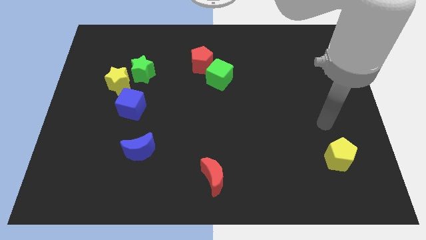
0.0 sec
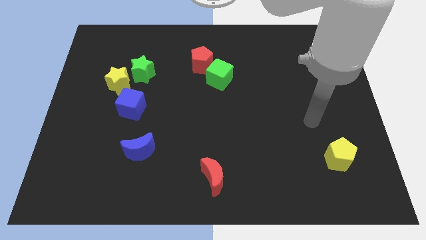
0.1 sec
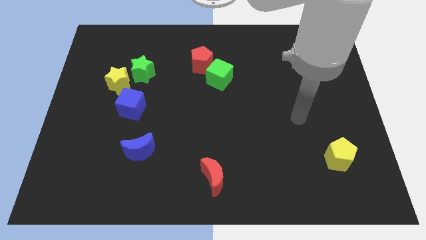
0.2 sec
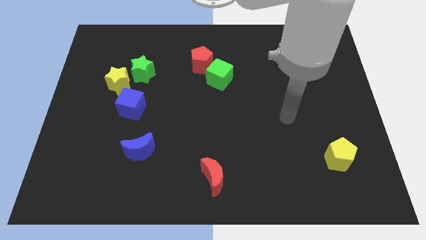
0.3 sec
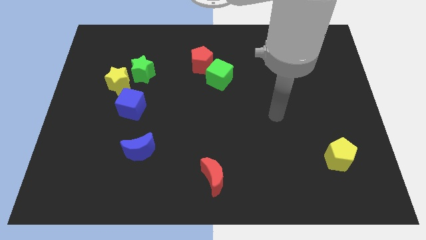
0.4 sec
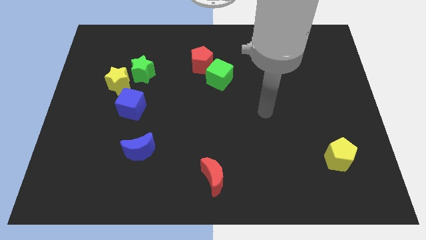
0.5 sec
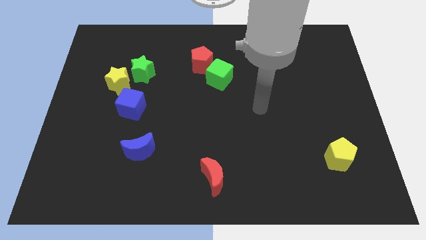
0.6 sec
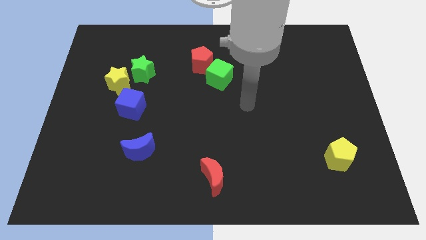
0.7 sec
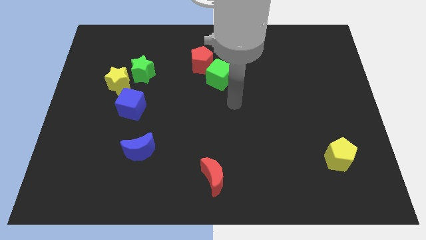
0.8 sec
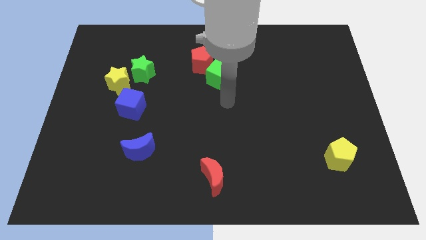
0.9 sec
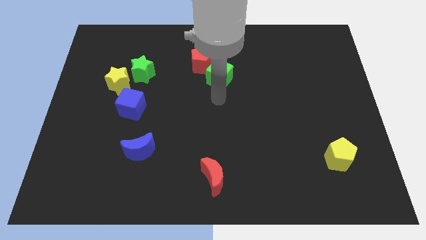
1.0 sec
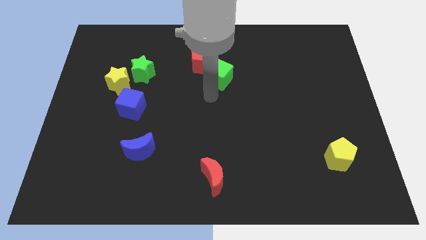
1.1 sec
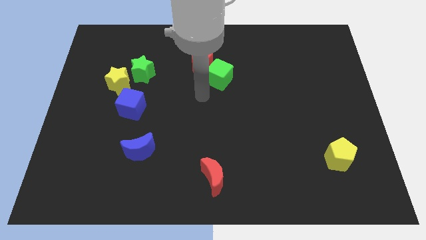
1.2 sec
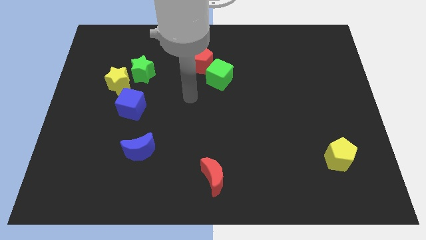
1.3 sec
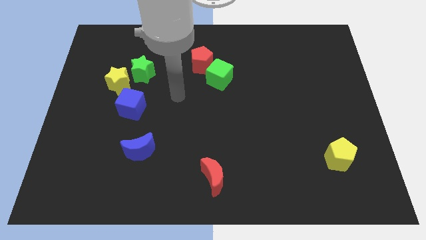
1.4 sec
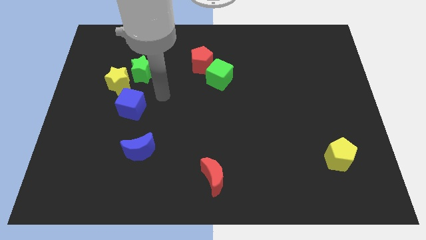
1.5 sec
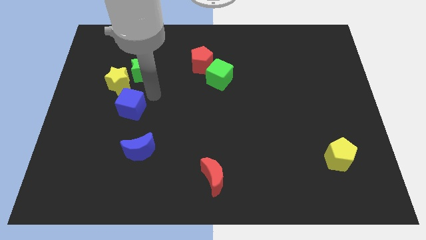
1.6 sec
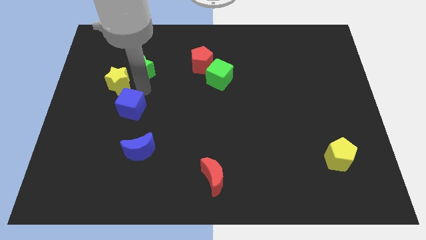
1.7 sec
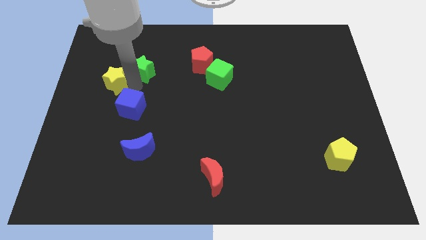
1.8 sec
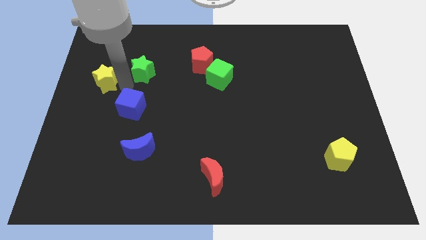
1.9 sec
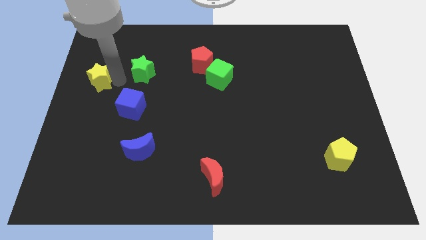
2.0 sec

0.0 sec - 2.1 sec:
separate the green star from the yellow star

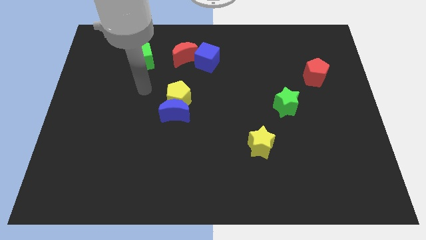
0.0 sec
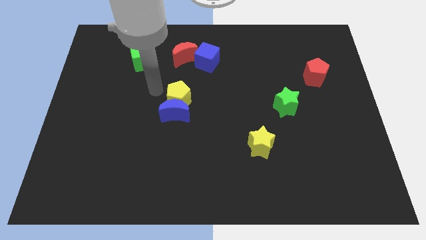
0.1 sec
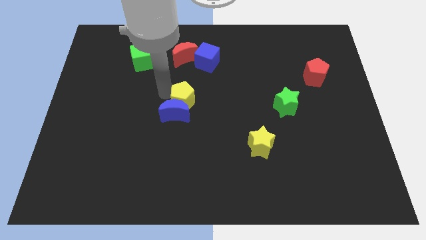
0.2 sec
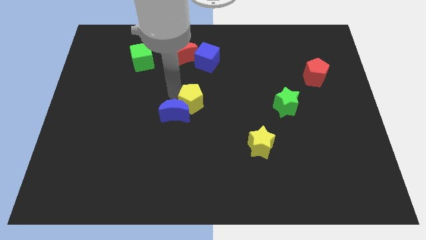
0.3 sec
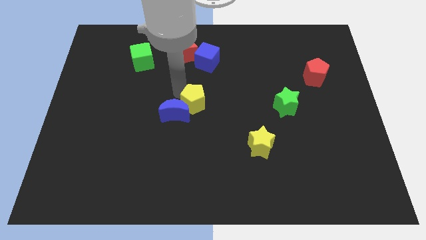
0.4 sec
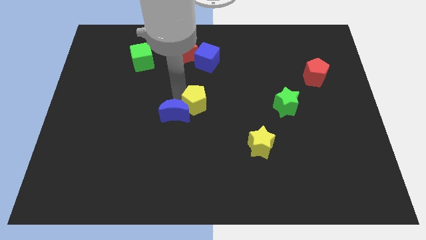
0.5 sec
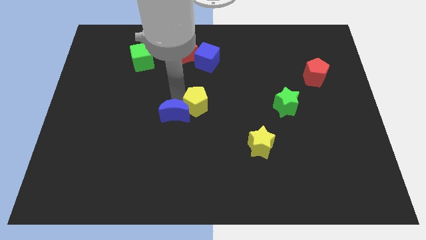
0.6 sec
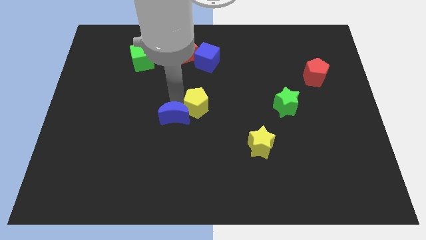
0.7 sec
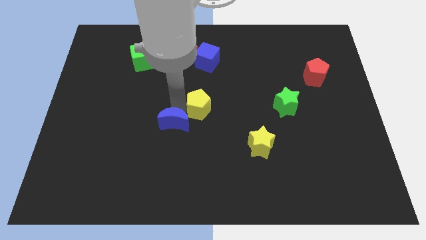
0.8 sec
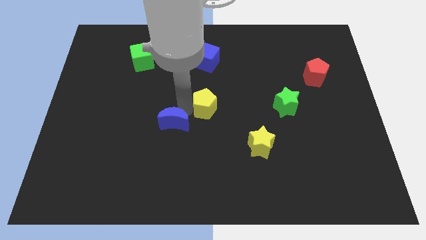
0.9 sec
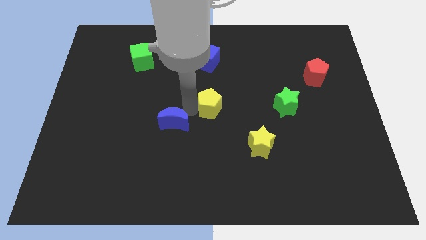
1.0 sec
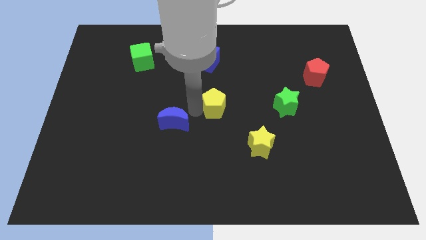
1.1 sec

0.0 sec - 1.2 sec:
move the blue moon away from the yellow pentagon

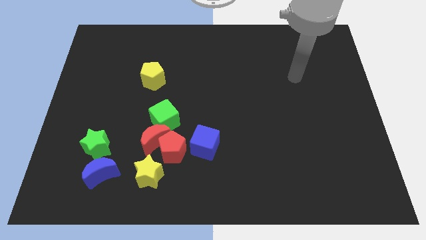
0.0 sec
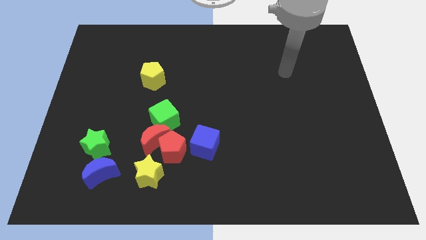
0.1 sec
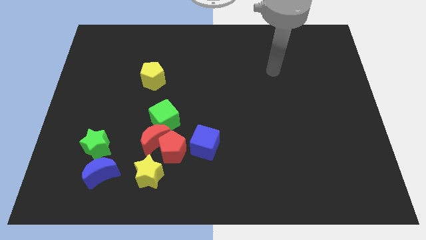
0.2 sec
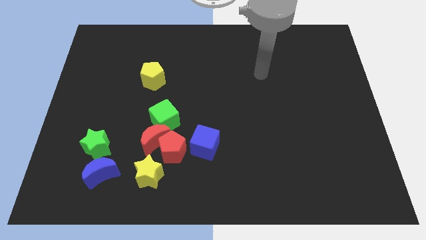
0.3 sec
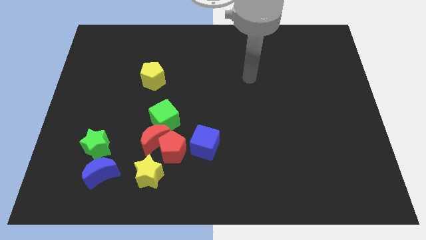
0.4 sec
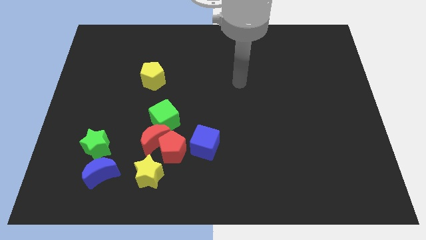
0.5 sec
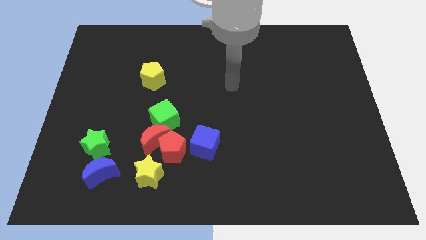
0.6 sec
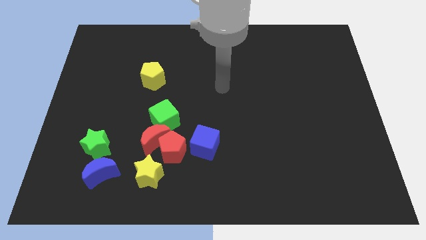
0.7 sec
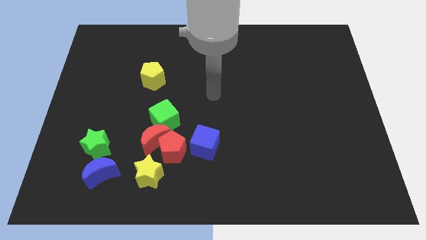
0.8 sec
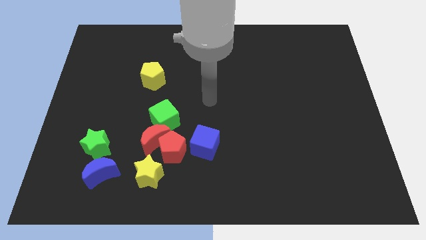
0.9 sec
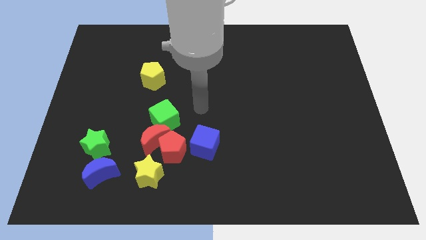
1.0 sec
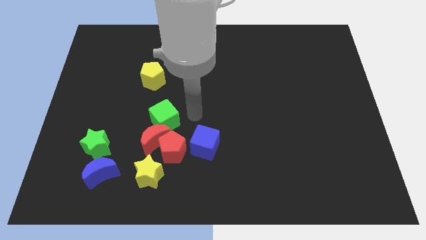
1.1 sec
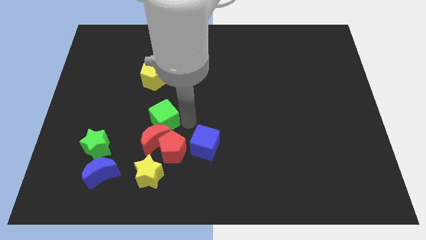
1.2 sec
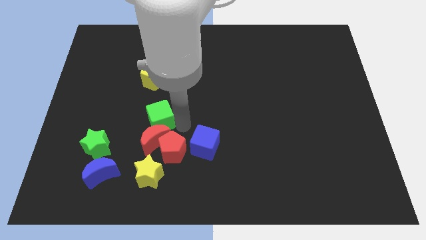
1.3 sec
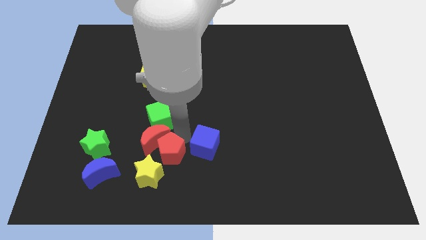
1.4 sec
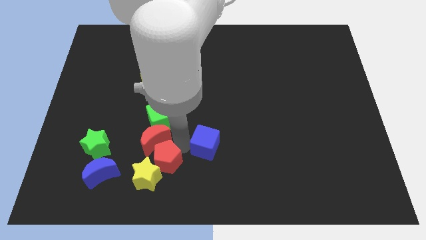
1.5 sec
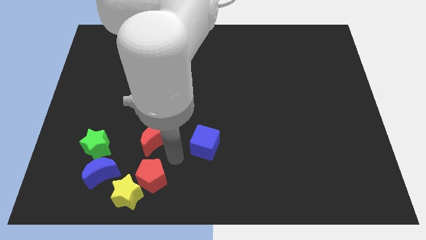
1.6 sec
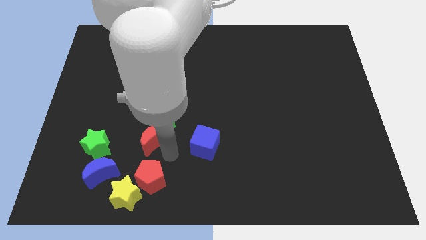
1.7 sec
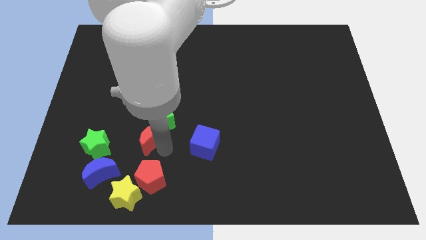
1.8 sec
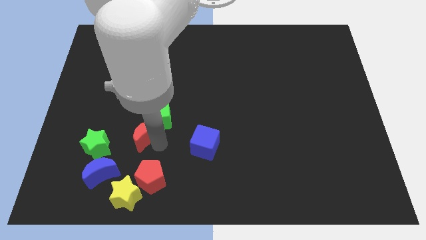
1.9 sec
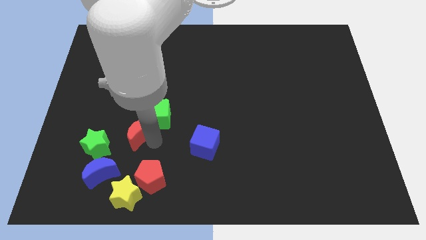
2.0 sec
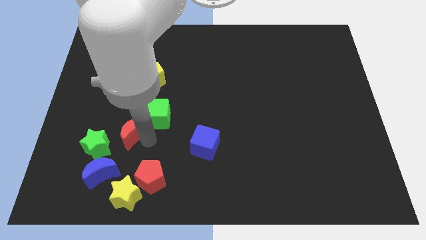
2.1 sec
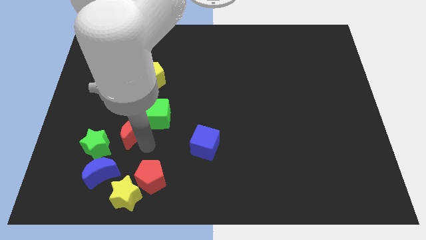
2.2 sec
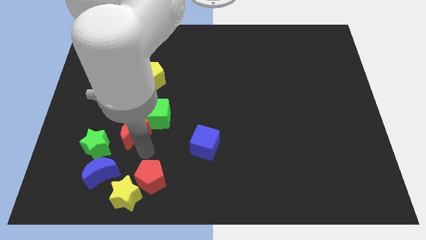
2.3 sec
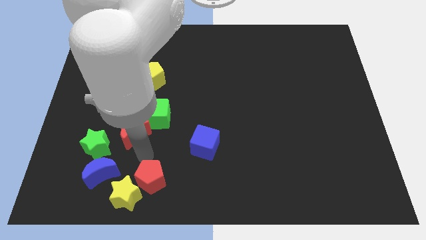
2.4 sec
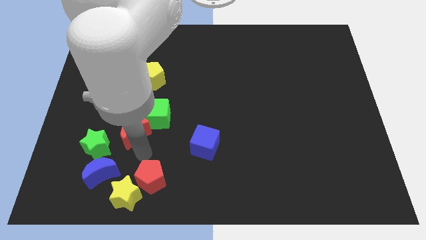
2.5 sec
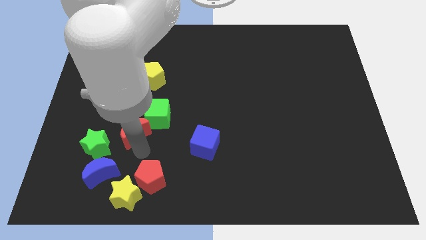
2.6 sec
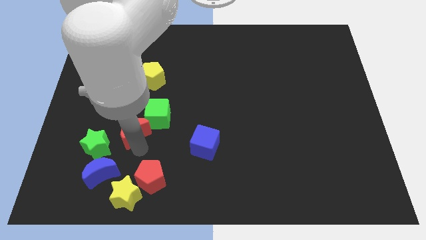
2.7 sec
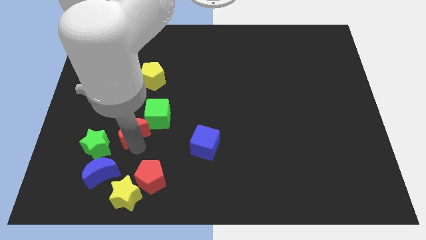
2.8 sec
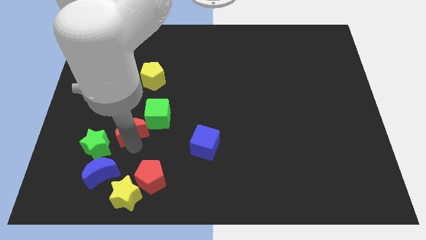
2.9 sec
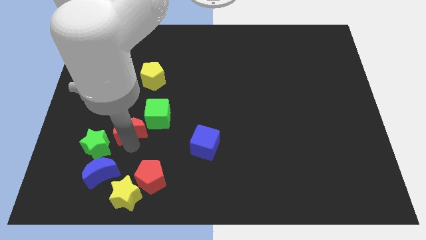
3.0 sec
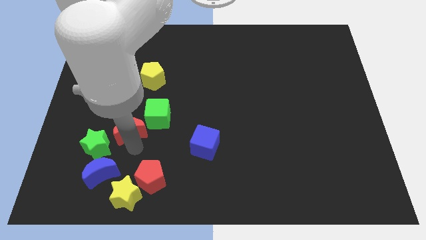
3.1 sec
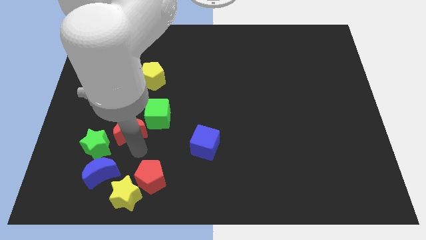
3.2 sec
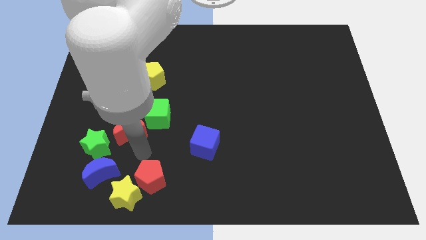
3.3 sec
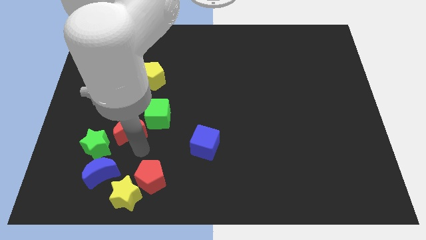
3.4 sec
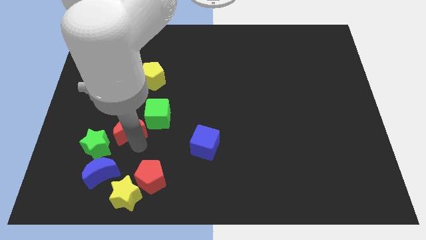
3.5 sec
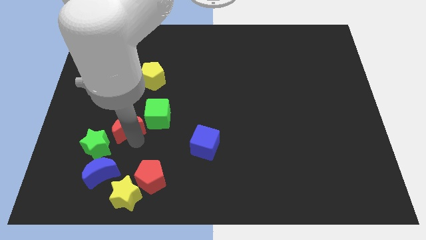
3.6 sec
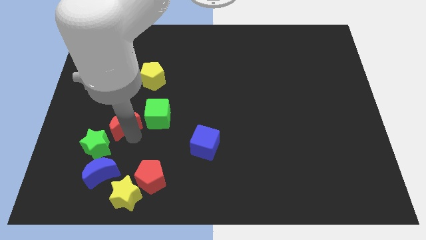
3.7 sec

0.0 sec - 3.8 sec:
move the red moon away from the red pentagon, green cube, and yellow star

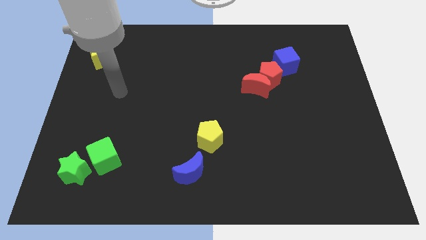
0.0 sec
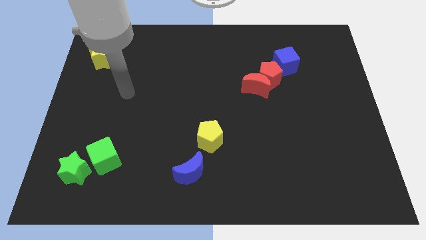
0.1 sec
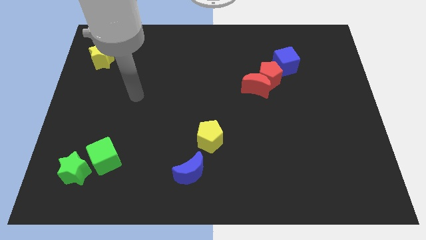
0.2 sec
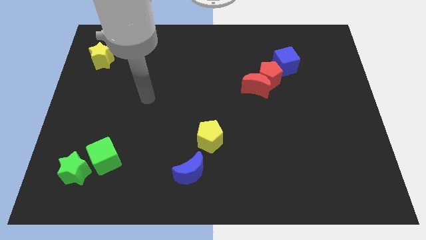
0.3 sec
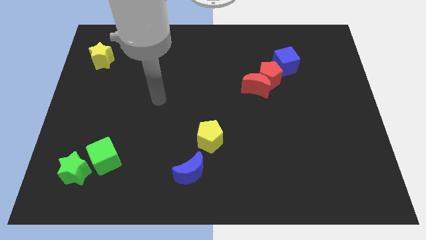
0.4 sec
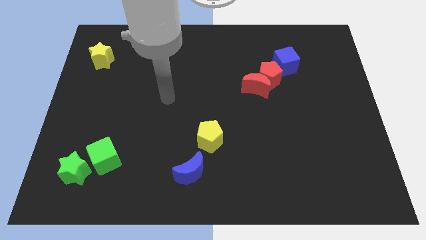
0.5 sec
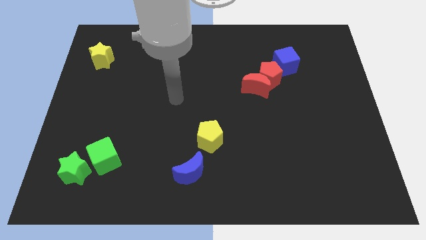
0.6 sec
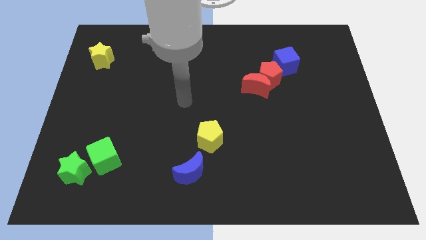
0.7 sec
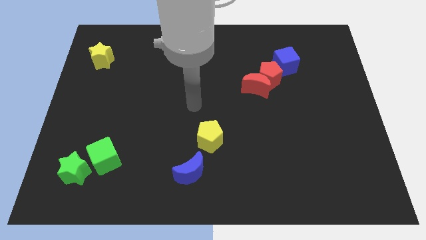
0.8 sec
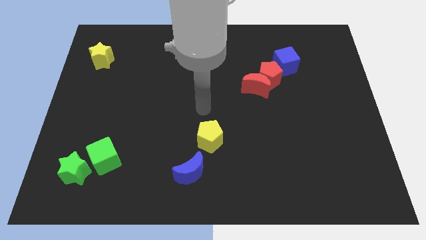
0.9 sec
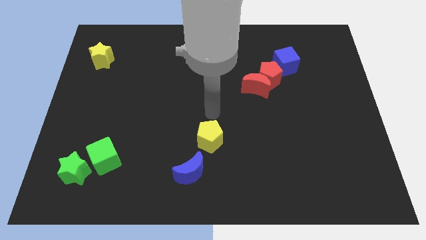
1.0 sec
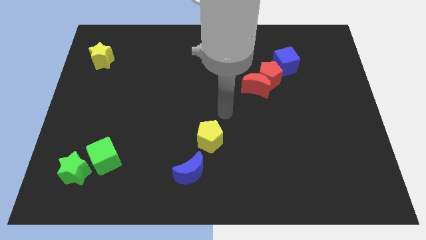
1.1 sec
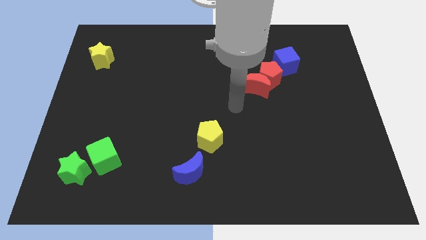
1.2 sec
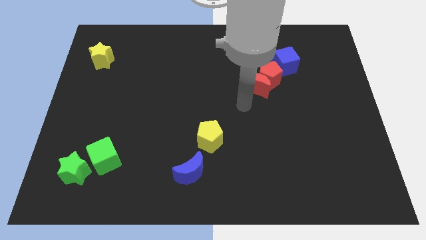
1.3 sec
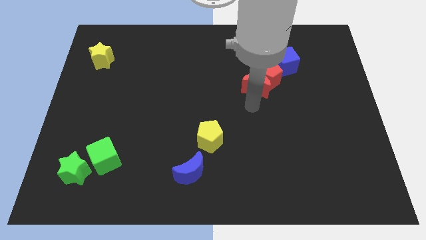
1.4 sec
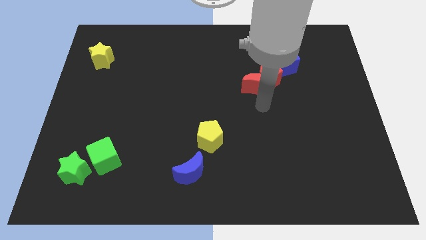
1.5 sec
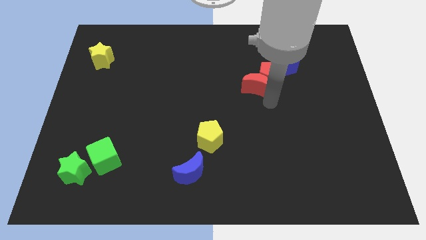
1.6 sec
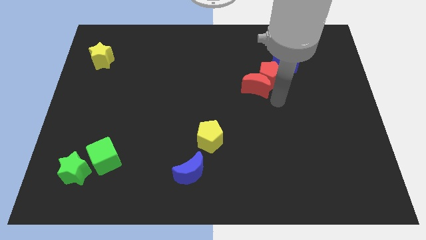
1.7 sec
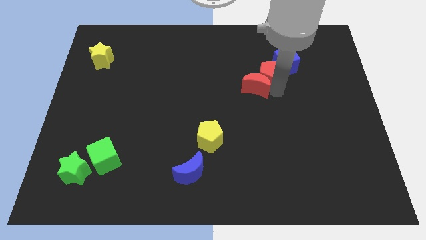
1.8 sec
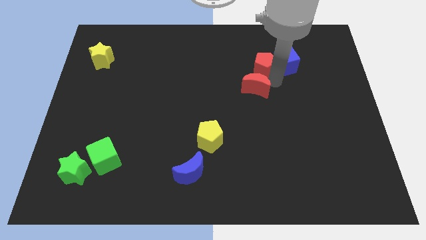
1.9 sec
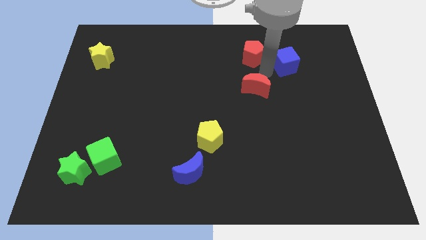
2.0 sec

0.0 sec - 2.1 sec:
move the red moon away from the red pentagon

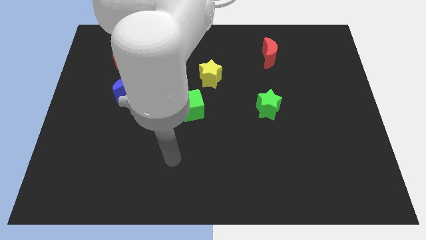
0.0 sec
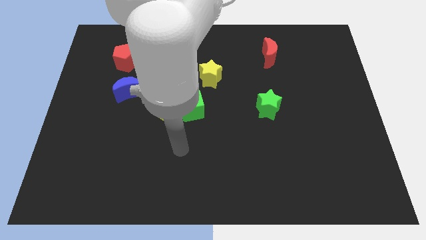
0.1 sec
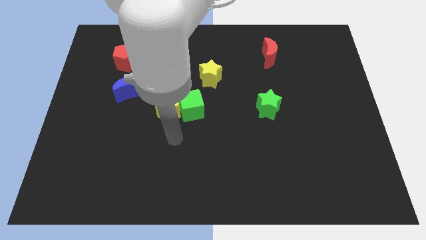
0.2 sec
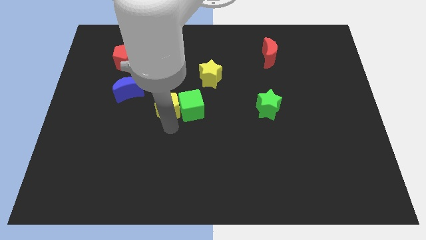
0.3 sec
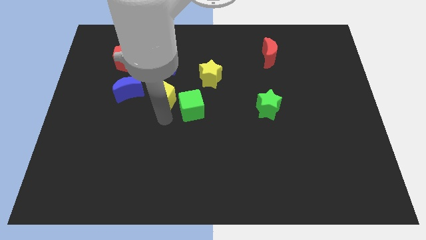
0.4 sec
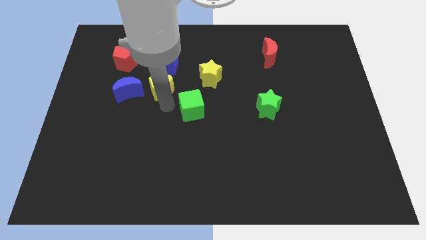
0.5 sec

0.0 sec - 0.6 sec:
separate the green cube from the yellow pentagon
